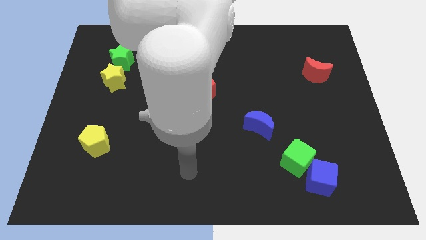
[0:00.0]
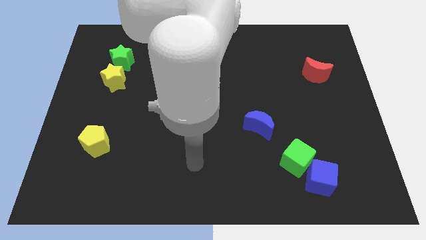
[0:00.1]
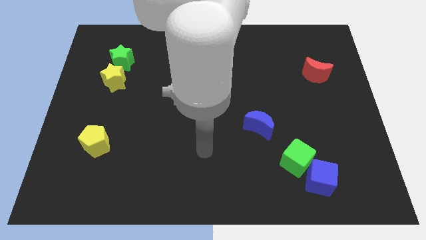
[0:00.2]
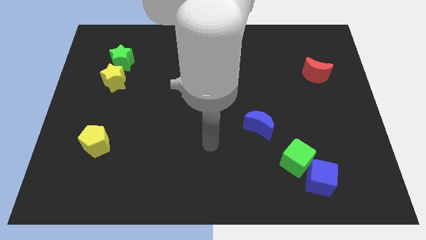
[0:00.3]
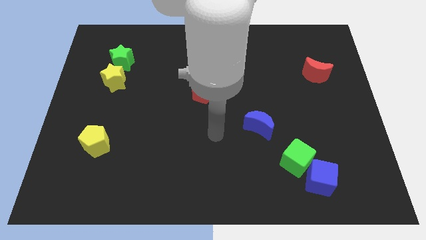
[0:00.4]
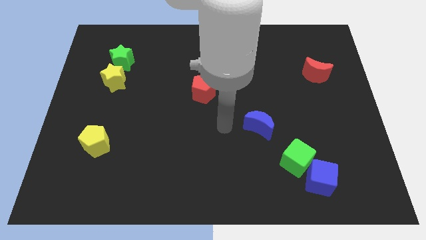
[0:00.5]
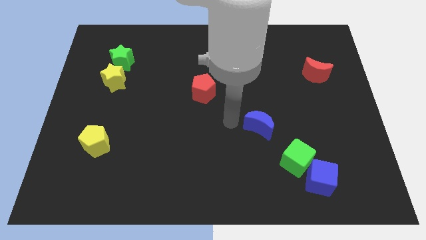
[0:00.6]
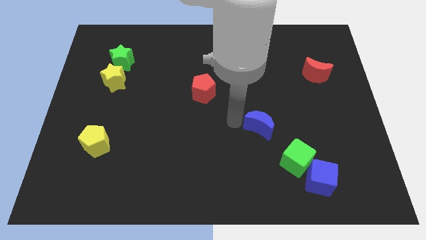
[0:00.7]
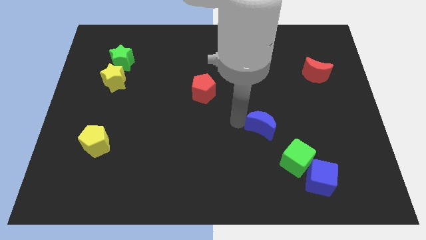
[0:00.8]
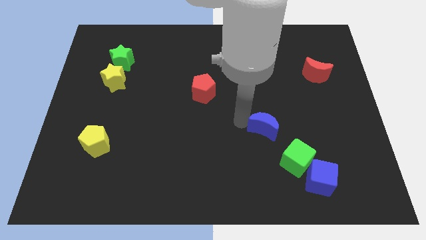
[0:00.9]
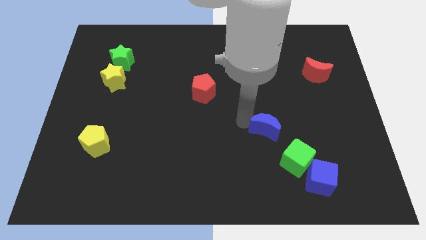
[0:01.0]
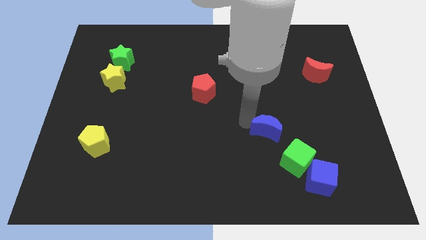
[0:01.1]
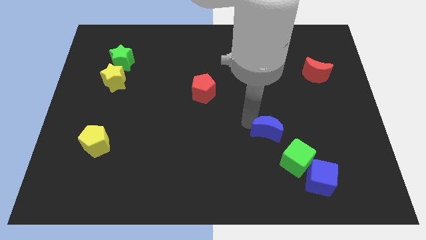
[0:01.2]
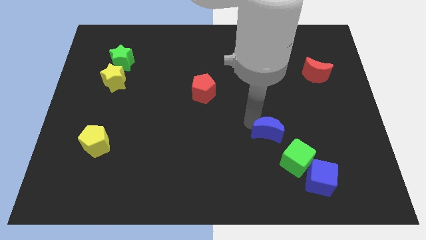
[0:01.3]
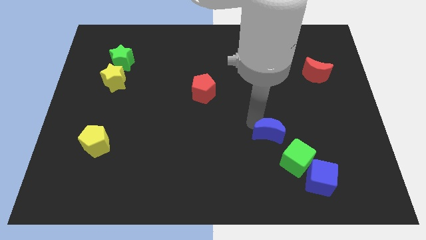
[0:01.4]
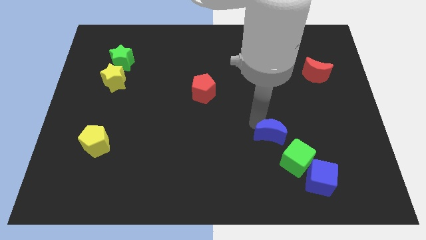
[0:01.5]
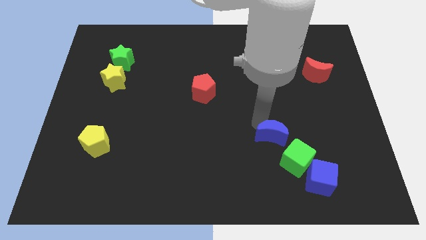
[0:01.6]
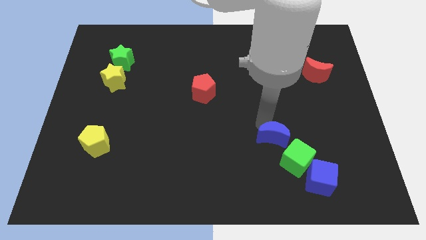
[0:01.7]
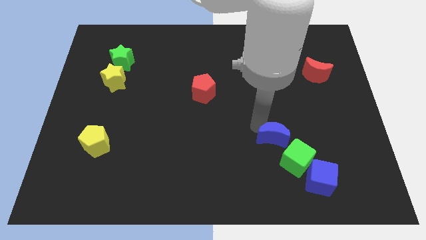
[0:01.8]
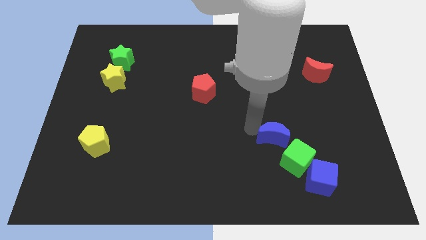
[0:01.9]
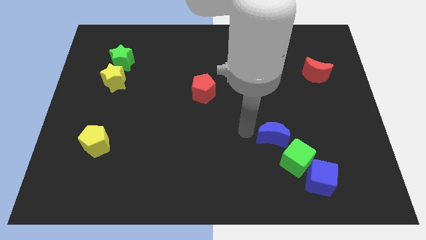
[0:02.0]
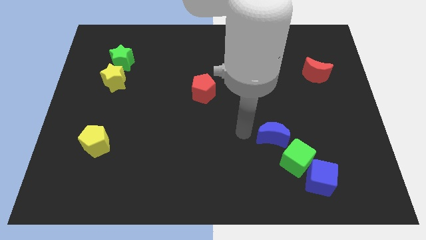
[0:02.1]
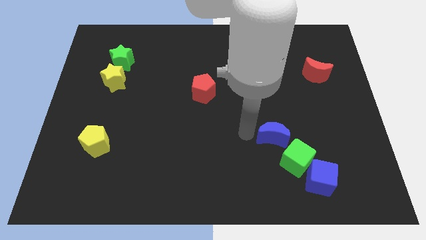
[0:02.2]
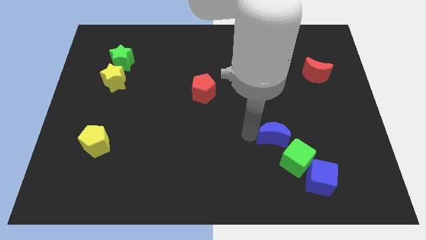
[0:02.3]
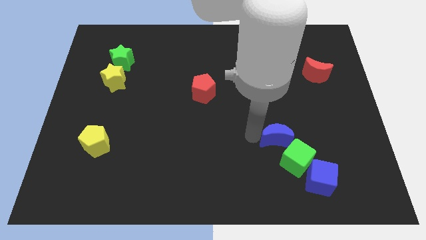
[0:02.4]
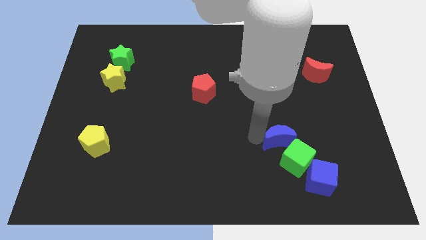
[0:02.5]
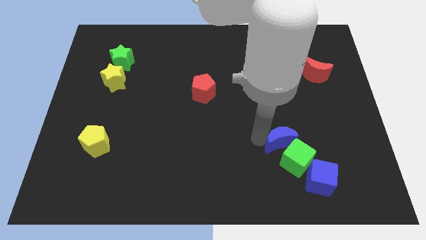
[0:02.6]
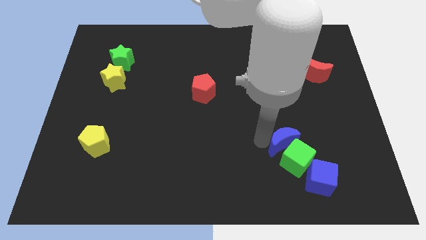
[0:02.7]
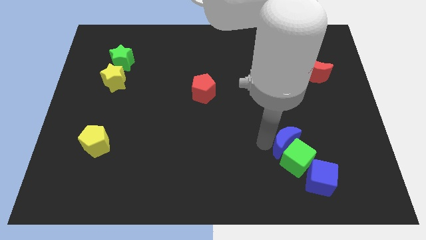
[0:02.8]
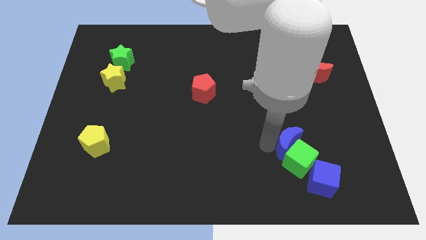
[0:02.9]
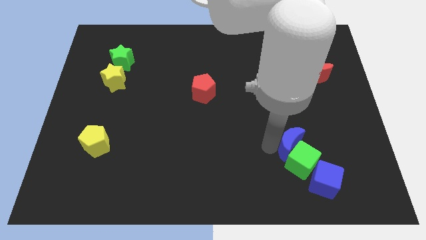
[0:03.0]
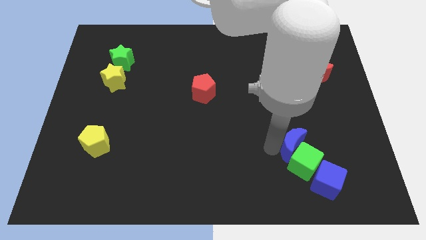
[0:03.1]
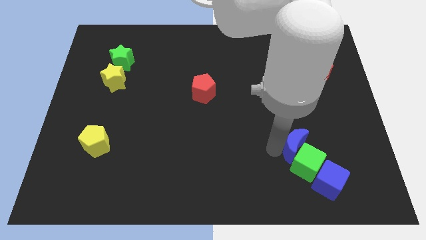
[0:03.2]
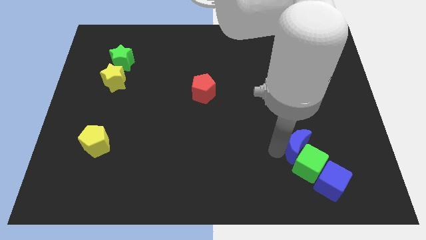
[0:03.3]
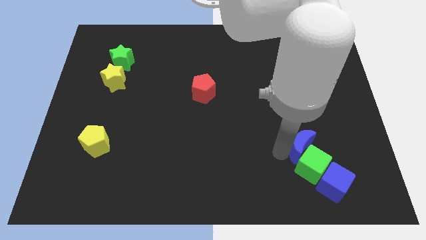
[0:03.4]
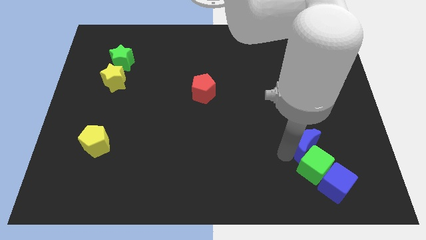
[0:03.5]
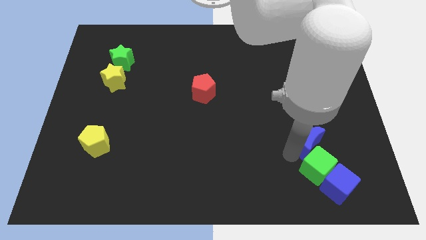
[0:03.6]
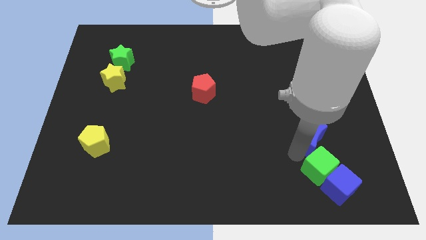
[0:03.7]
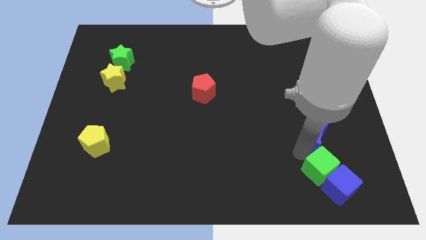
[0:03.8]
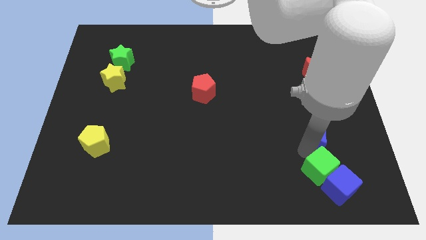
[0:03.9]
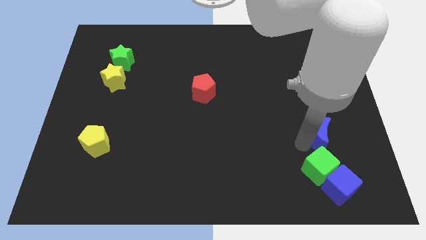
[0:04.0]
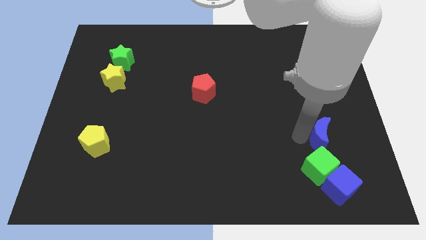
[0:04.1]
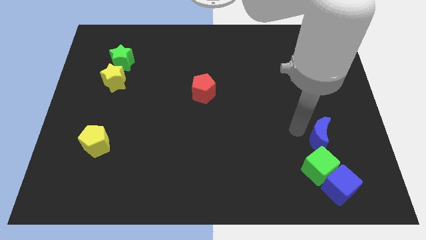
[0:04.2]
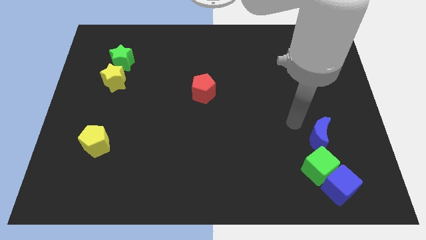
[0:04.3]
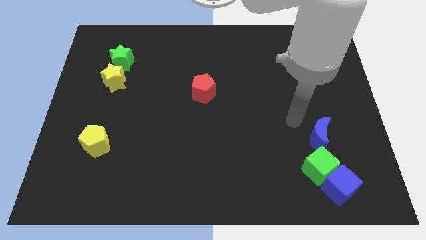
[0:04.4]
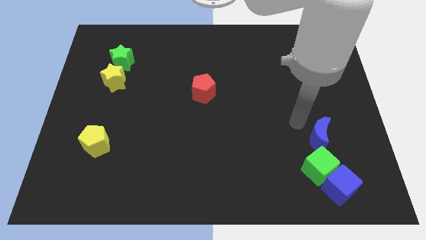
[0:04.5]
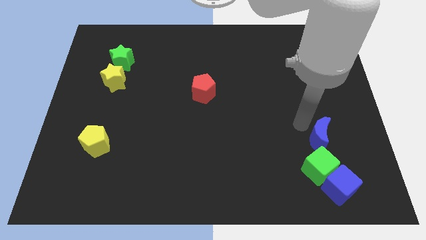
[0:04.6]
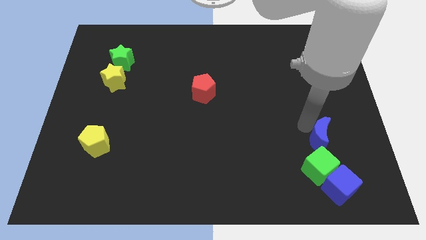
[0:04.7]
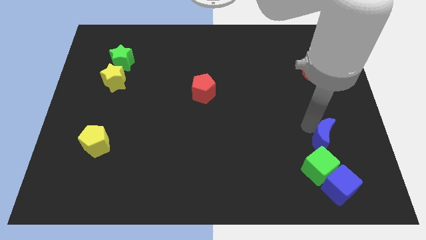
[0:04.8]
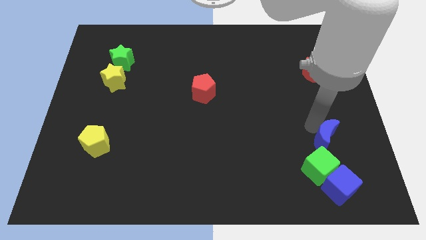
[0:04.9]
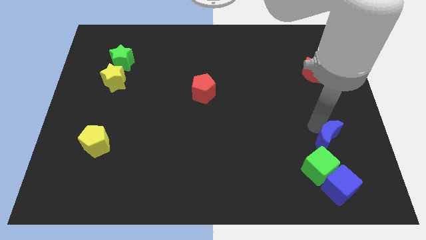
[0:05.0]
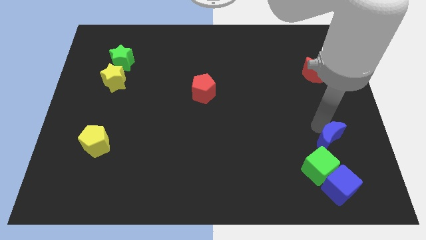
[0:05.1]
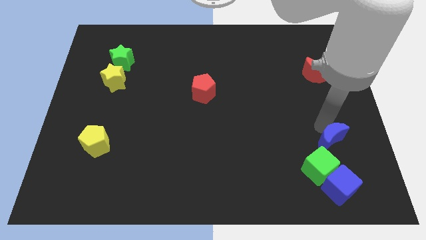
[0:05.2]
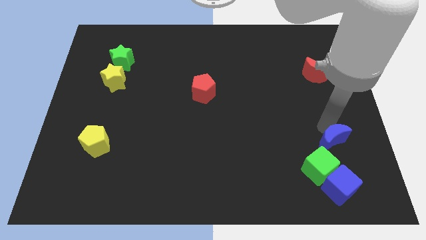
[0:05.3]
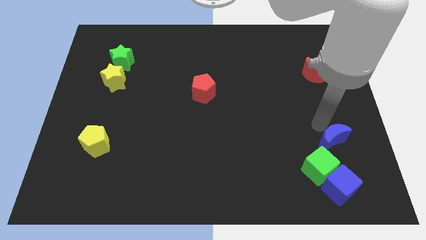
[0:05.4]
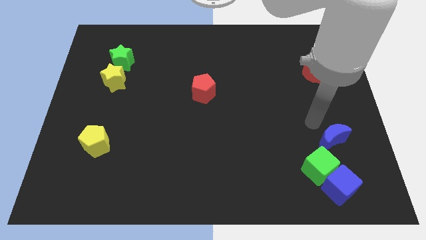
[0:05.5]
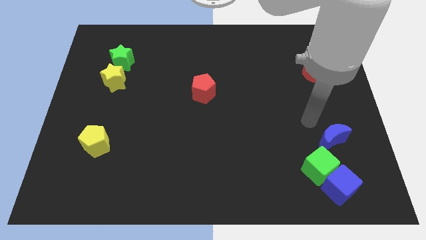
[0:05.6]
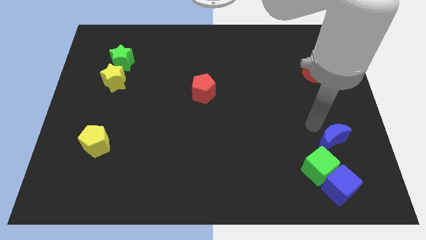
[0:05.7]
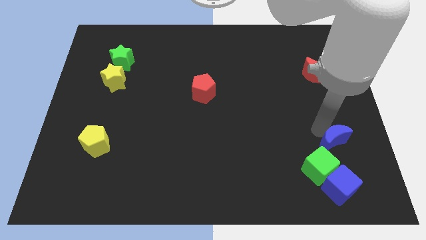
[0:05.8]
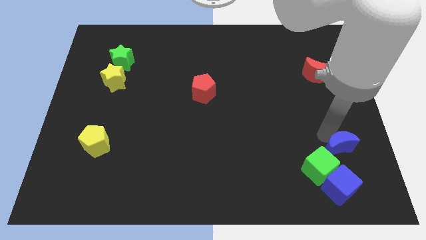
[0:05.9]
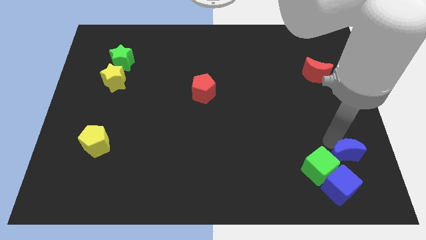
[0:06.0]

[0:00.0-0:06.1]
push the blue moon diagonally up and to the right of the blue cube

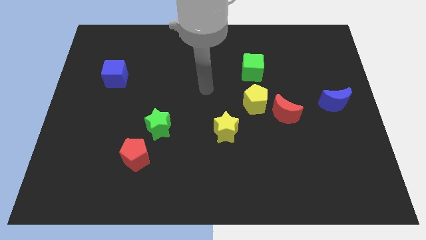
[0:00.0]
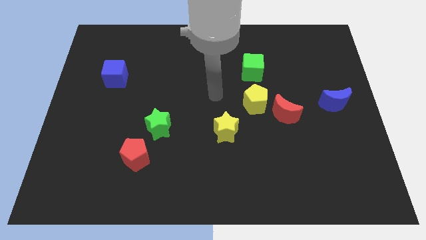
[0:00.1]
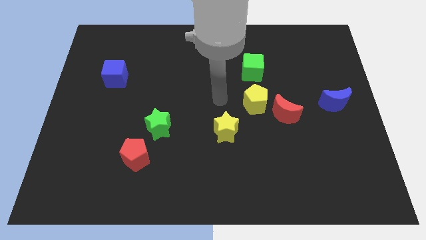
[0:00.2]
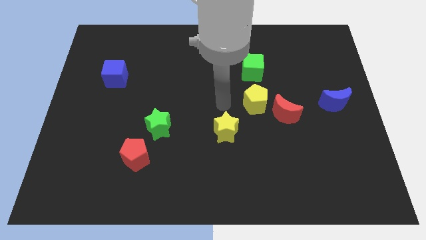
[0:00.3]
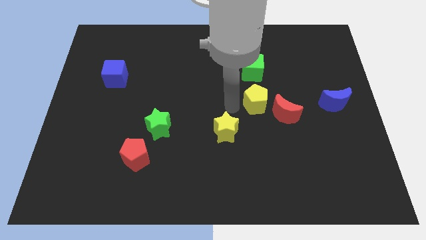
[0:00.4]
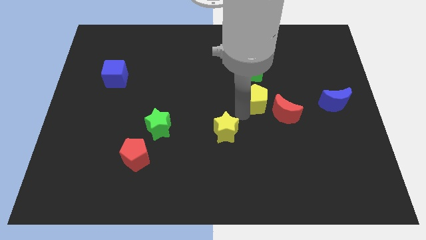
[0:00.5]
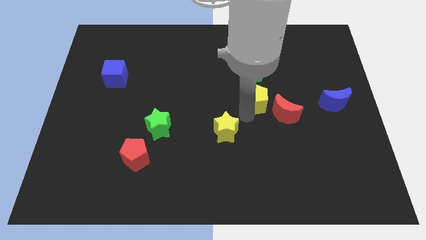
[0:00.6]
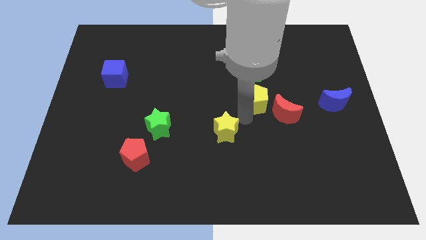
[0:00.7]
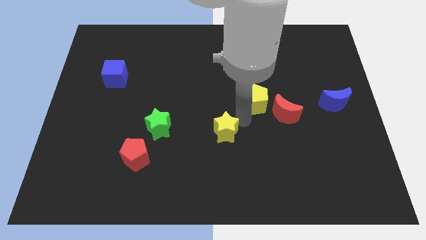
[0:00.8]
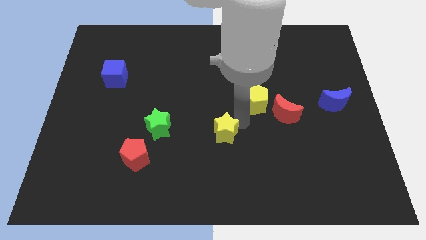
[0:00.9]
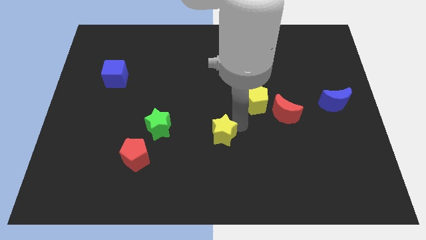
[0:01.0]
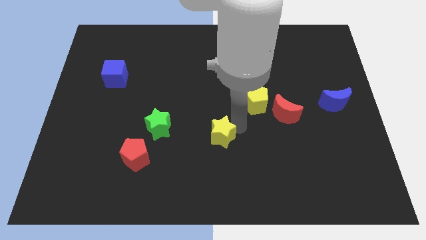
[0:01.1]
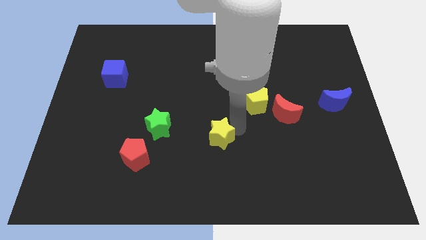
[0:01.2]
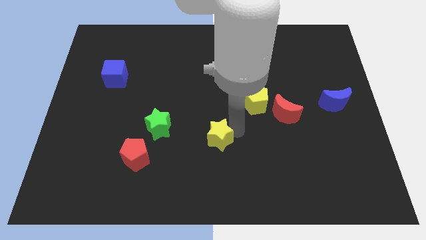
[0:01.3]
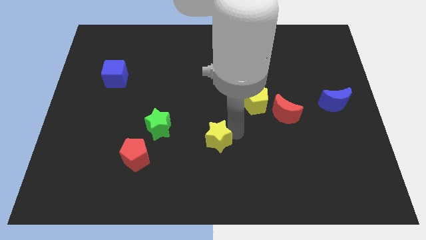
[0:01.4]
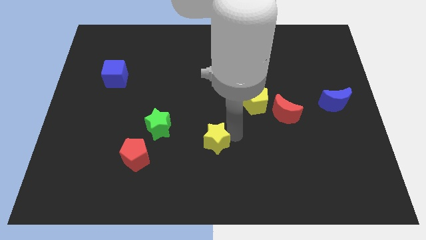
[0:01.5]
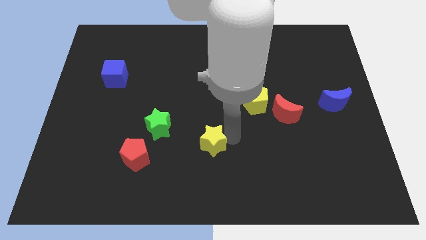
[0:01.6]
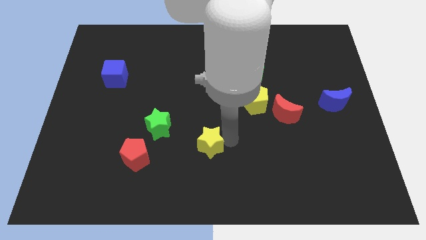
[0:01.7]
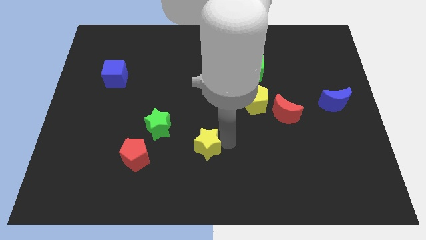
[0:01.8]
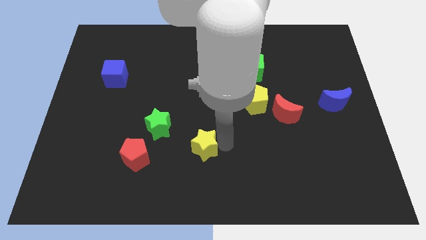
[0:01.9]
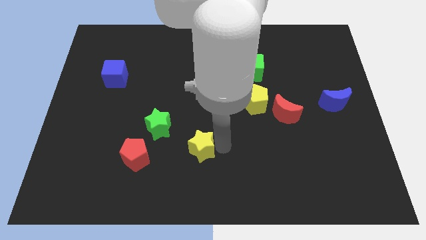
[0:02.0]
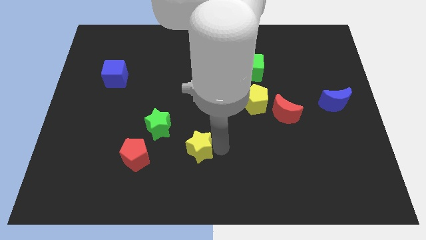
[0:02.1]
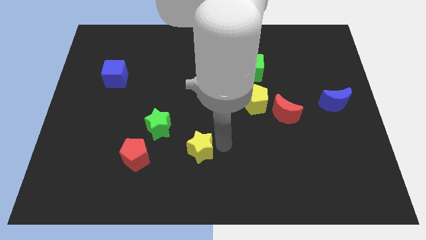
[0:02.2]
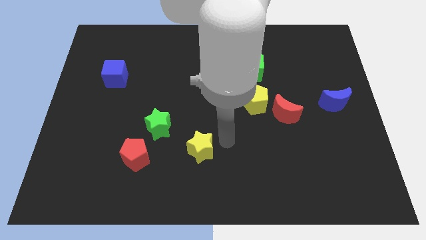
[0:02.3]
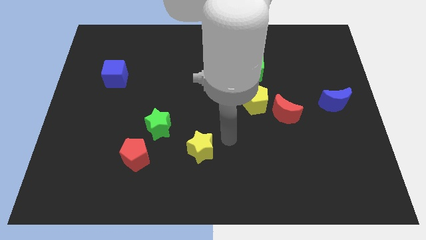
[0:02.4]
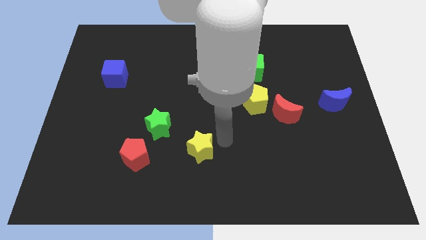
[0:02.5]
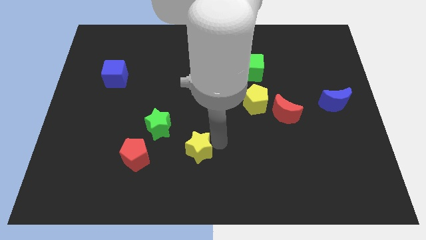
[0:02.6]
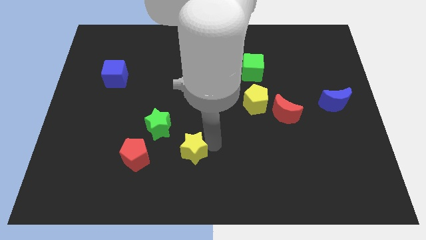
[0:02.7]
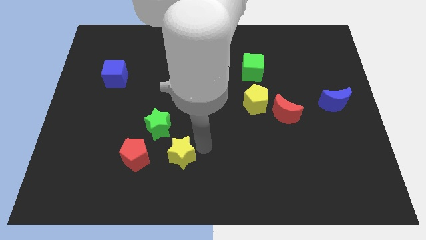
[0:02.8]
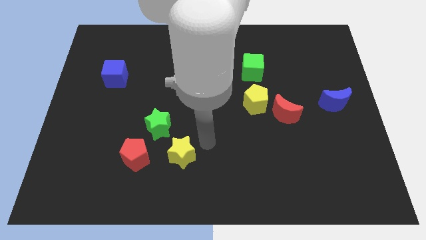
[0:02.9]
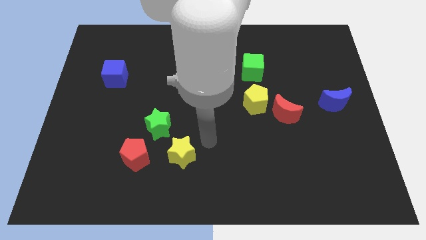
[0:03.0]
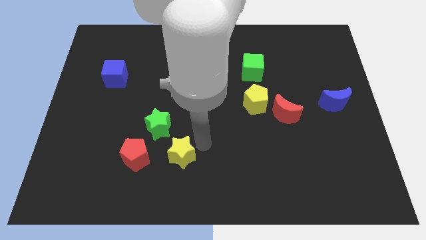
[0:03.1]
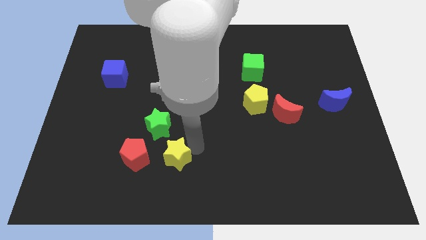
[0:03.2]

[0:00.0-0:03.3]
put the yellow star to the bottom of the green star
